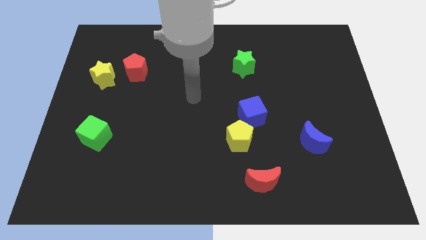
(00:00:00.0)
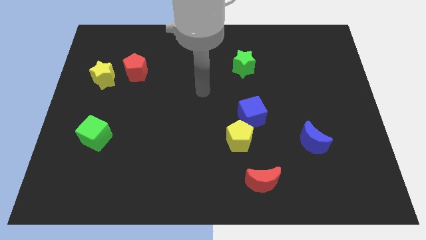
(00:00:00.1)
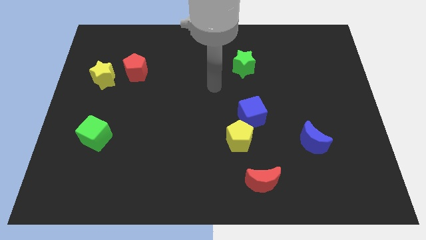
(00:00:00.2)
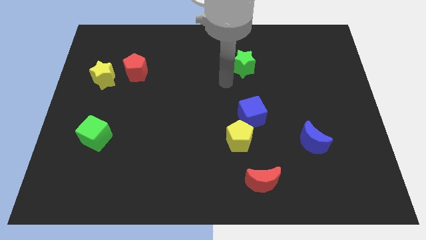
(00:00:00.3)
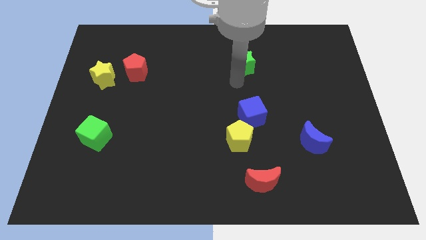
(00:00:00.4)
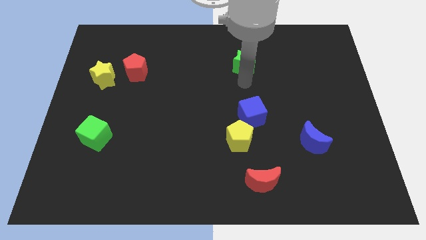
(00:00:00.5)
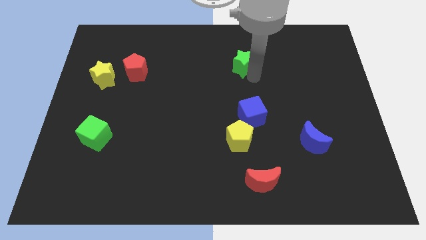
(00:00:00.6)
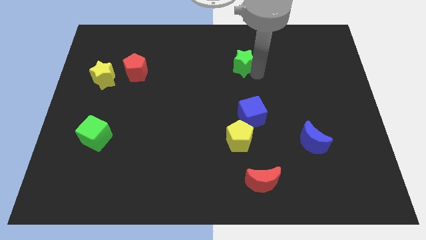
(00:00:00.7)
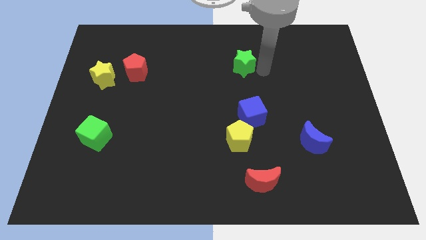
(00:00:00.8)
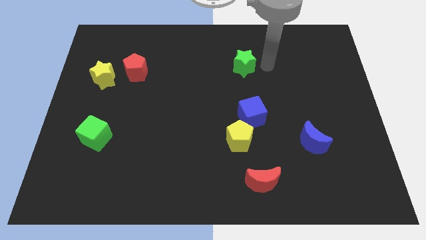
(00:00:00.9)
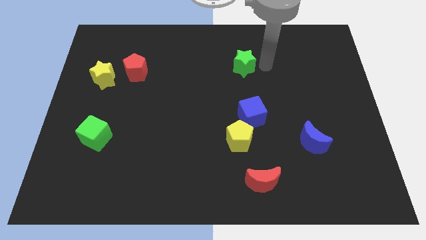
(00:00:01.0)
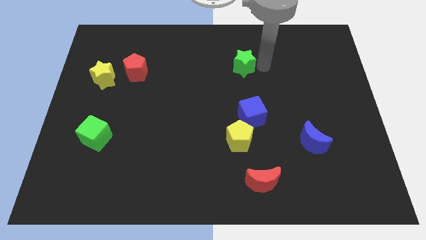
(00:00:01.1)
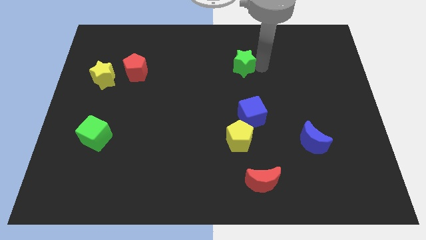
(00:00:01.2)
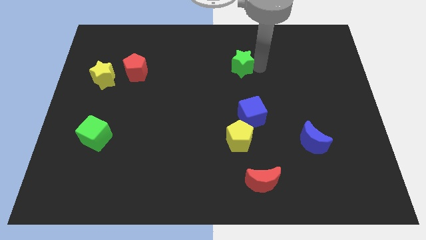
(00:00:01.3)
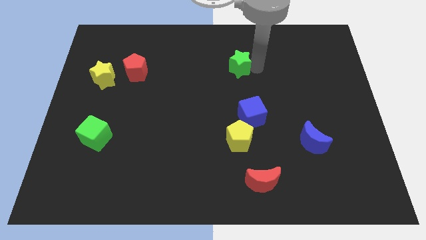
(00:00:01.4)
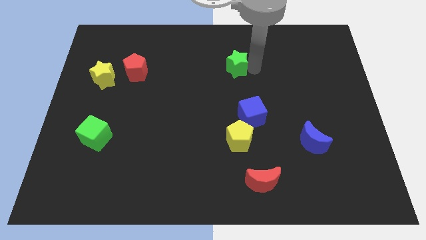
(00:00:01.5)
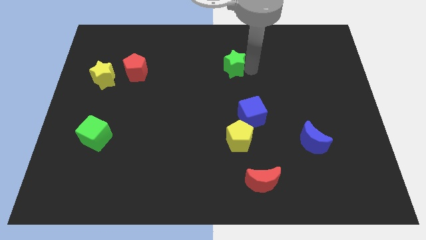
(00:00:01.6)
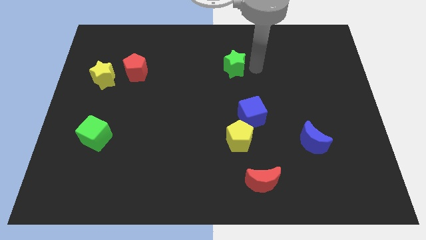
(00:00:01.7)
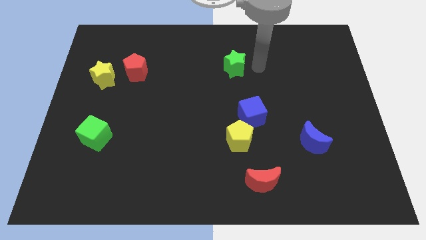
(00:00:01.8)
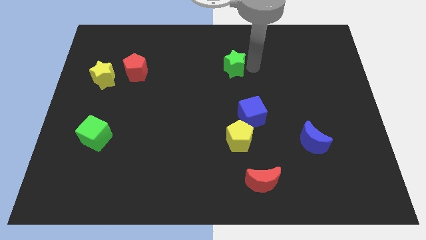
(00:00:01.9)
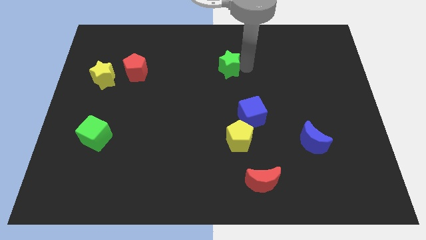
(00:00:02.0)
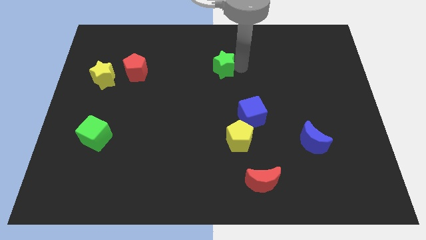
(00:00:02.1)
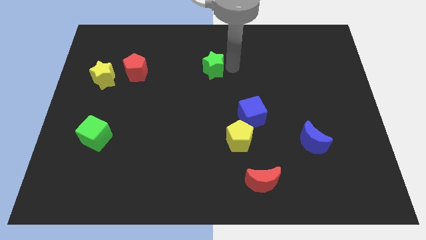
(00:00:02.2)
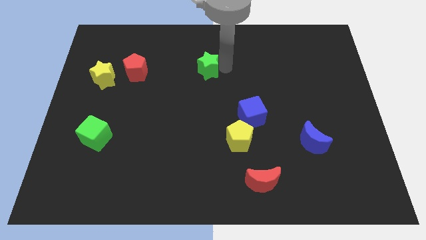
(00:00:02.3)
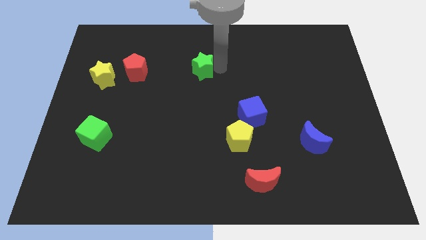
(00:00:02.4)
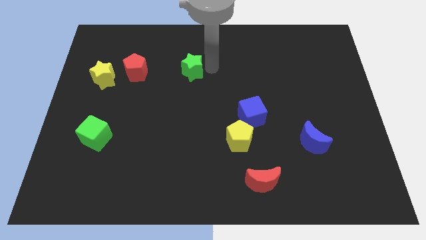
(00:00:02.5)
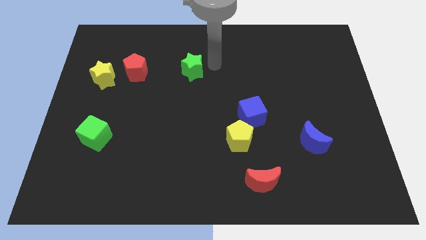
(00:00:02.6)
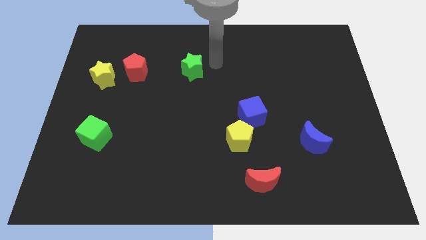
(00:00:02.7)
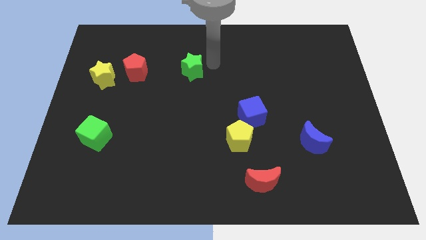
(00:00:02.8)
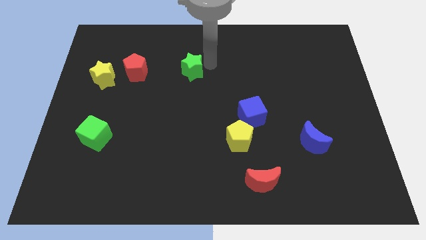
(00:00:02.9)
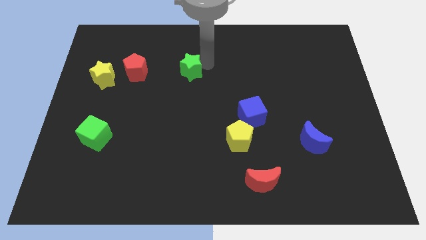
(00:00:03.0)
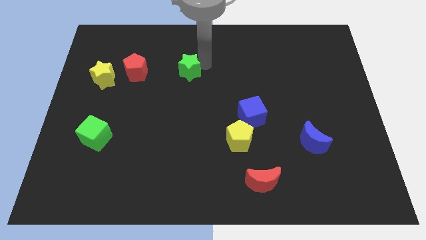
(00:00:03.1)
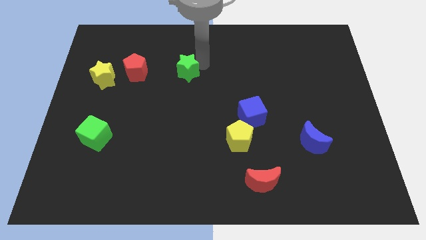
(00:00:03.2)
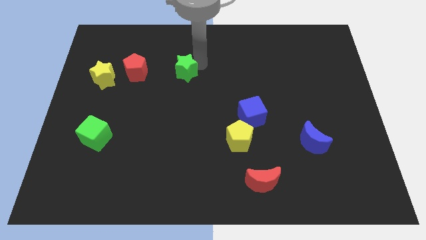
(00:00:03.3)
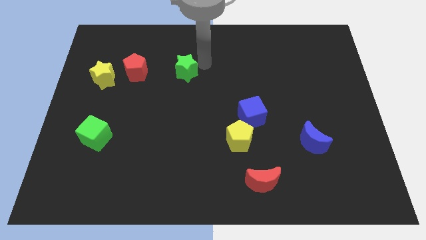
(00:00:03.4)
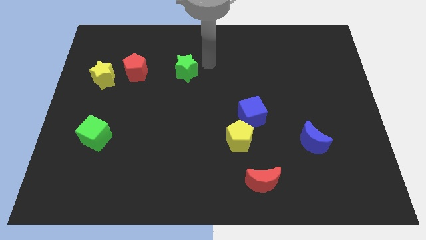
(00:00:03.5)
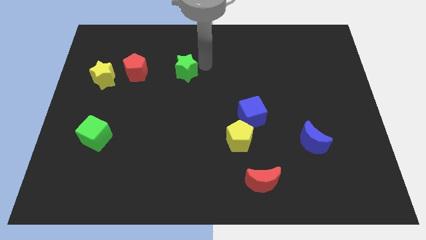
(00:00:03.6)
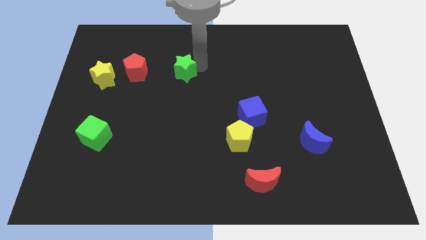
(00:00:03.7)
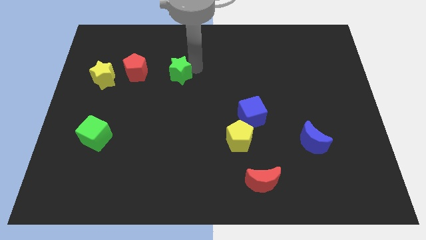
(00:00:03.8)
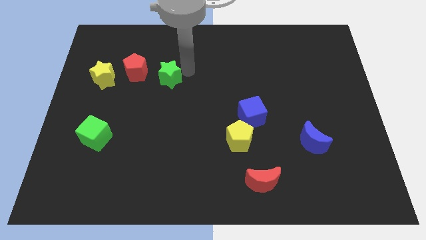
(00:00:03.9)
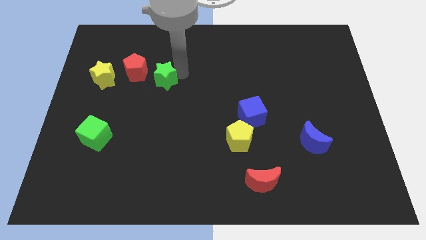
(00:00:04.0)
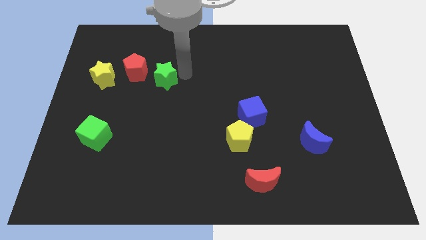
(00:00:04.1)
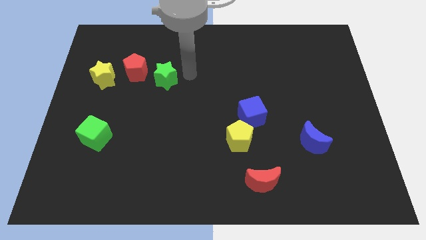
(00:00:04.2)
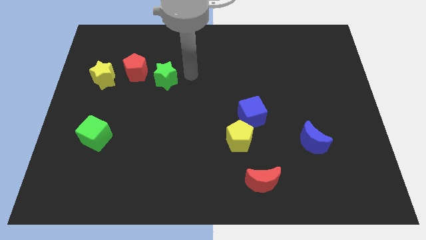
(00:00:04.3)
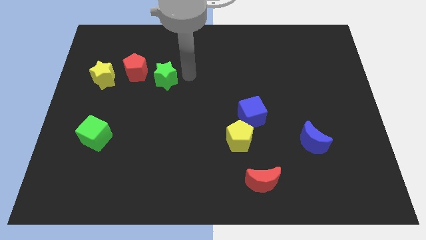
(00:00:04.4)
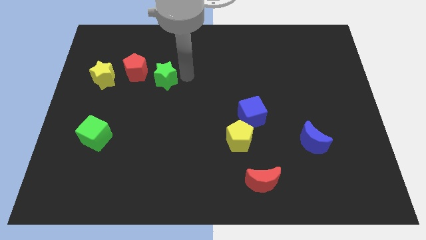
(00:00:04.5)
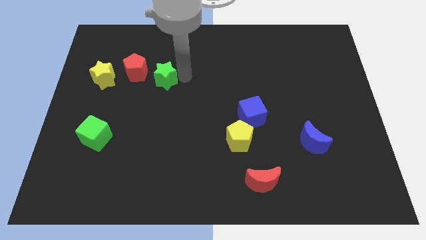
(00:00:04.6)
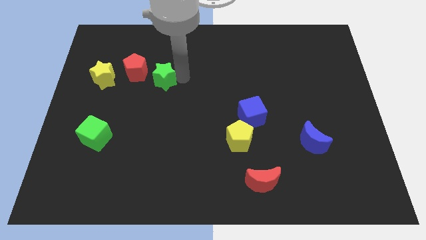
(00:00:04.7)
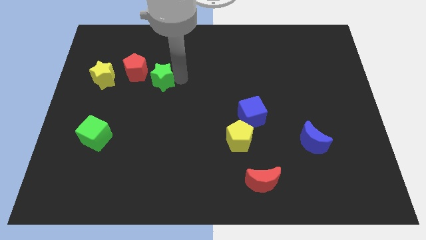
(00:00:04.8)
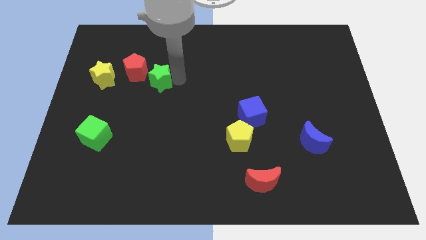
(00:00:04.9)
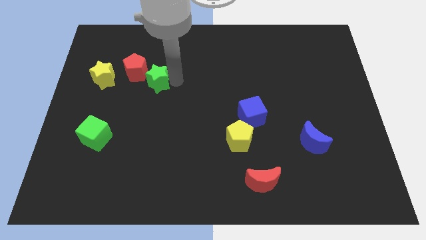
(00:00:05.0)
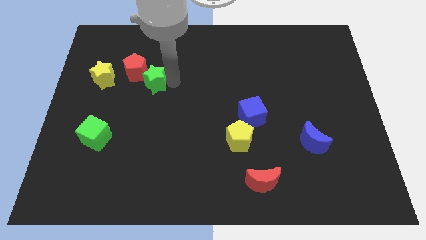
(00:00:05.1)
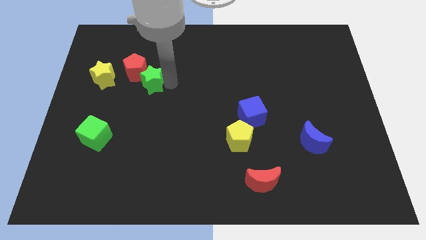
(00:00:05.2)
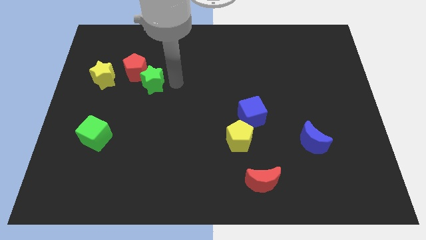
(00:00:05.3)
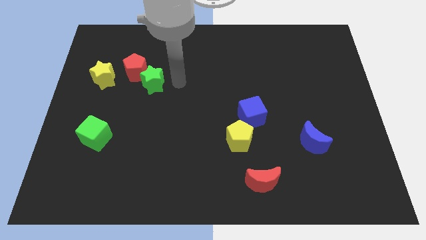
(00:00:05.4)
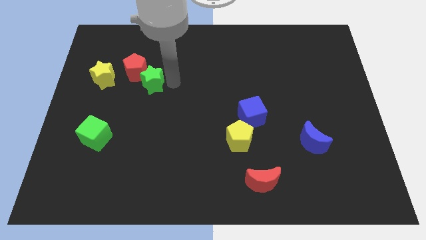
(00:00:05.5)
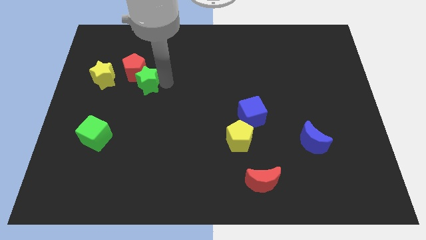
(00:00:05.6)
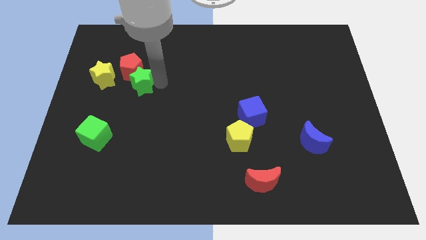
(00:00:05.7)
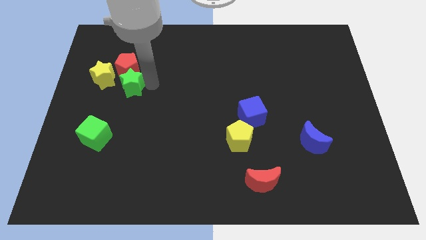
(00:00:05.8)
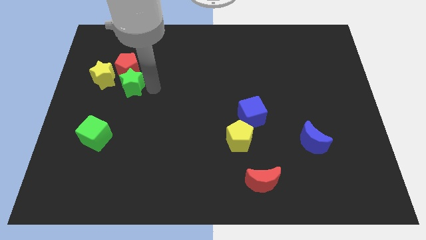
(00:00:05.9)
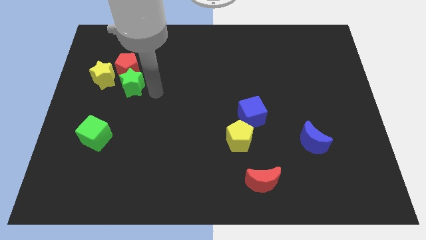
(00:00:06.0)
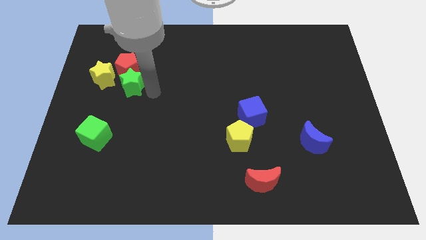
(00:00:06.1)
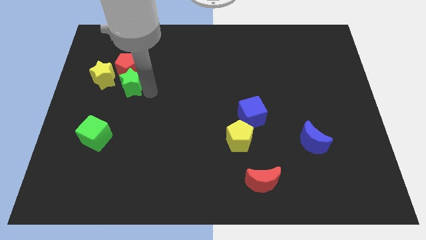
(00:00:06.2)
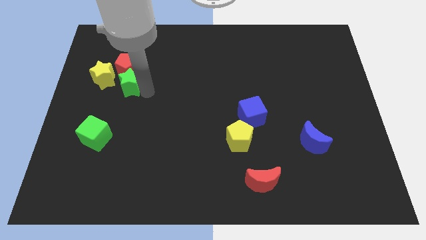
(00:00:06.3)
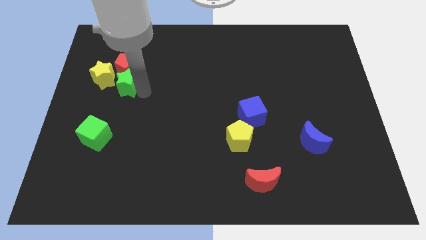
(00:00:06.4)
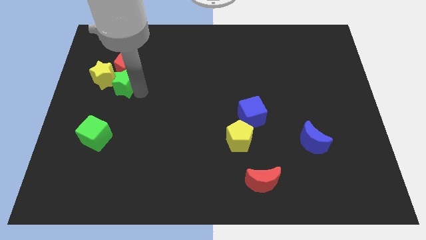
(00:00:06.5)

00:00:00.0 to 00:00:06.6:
move the green star next to the yellow star

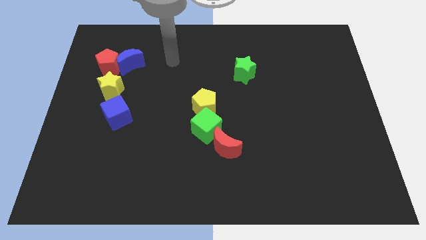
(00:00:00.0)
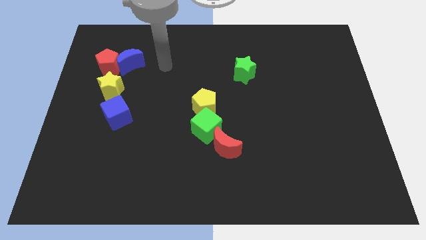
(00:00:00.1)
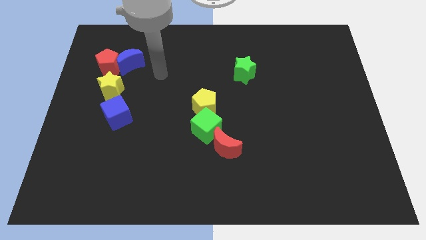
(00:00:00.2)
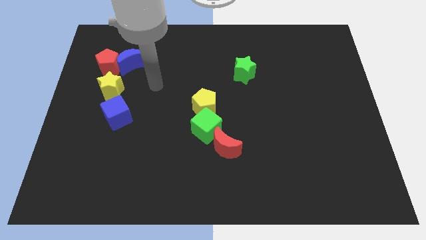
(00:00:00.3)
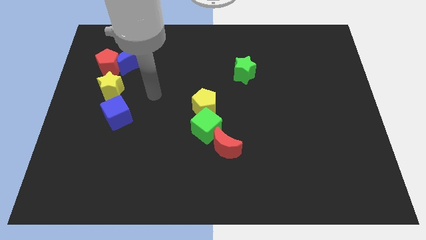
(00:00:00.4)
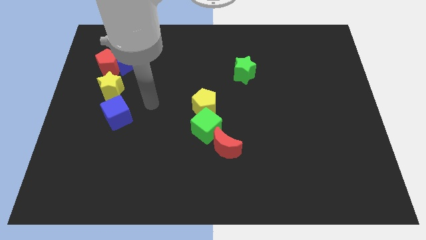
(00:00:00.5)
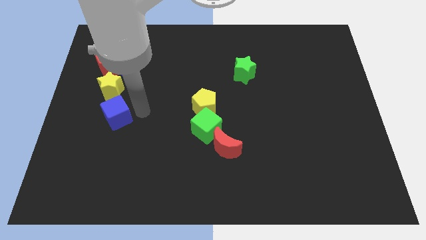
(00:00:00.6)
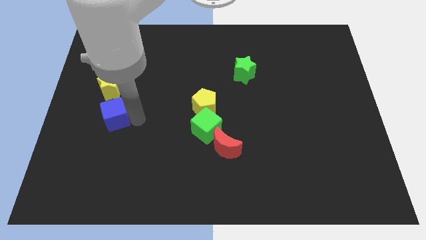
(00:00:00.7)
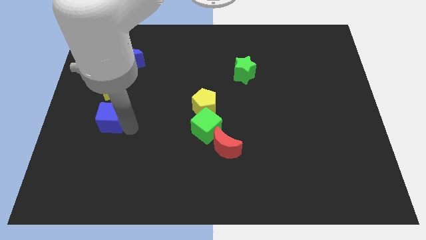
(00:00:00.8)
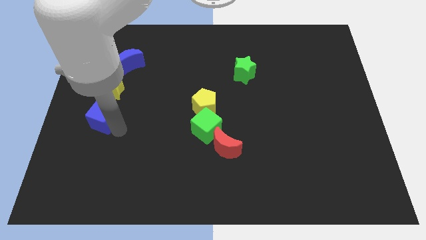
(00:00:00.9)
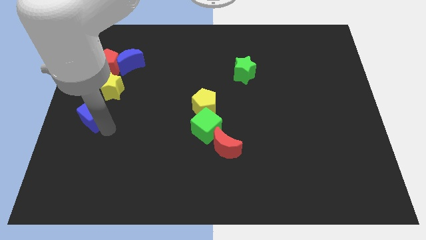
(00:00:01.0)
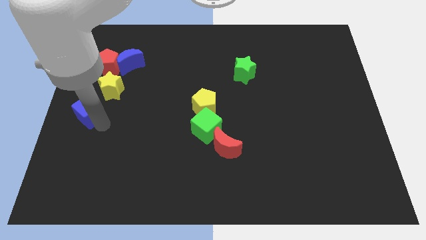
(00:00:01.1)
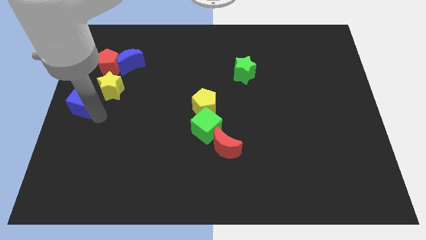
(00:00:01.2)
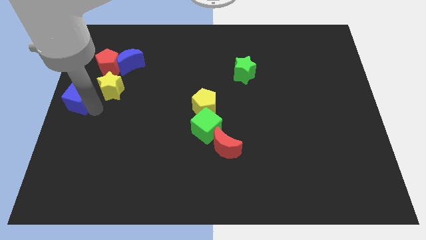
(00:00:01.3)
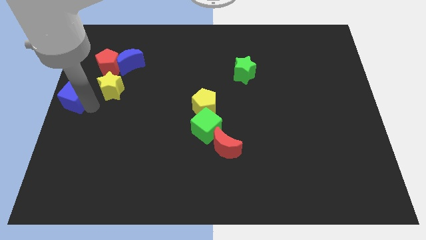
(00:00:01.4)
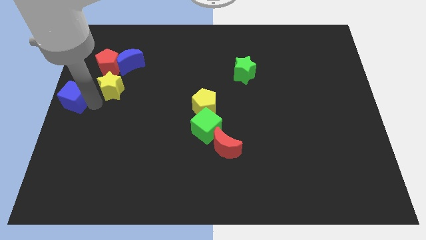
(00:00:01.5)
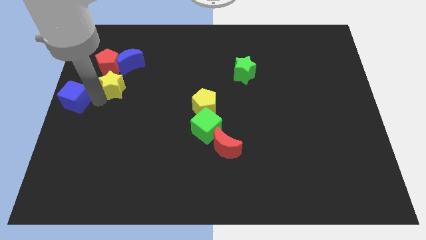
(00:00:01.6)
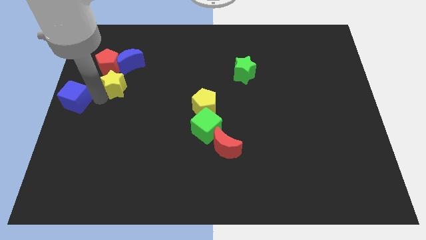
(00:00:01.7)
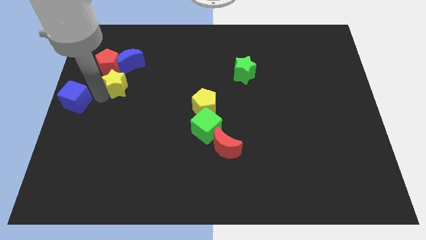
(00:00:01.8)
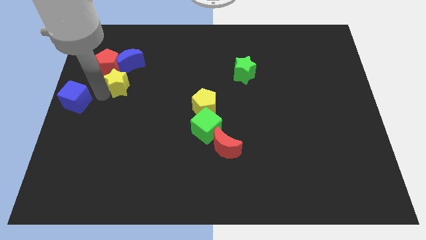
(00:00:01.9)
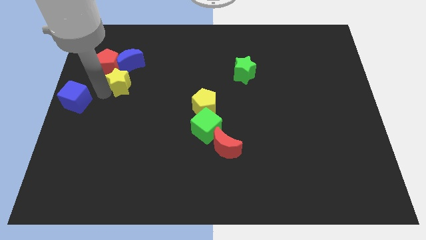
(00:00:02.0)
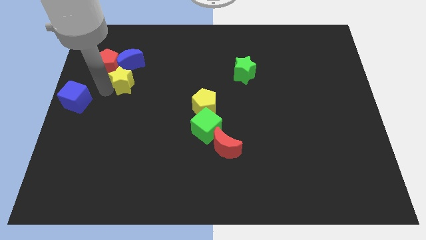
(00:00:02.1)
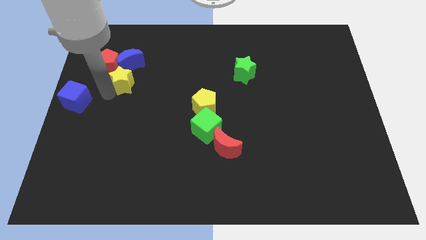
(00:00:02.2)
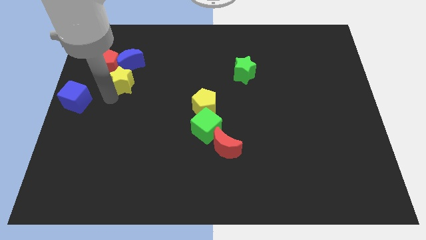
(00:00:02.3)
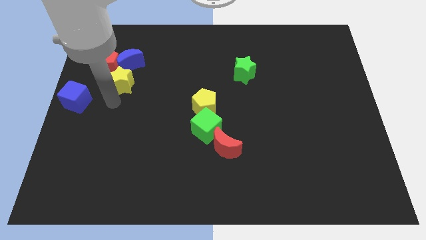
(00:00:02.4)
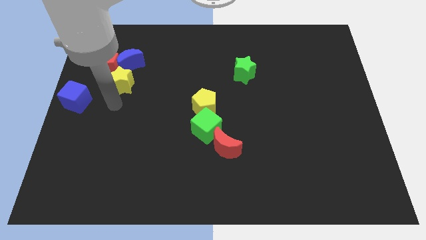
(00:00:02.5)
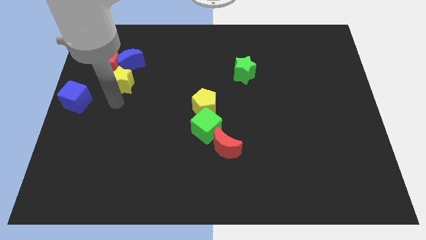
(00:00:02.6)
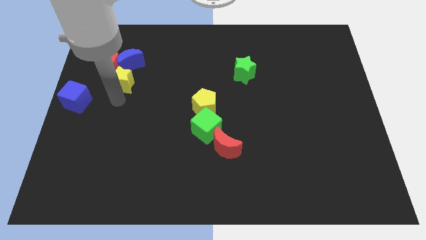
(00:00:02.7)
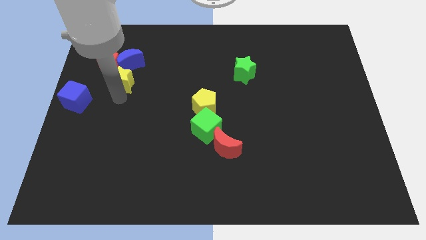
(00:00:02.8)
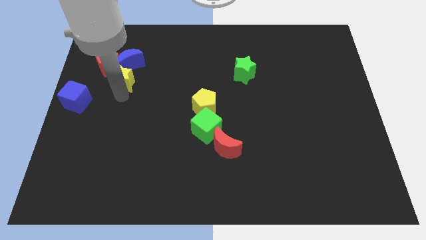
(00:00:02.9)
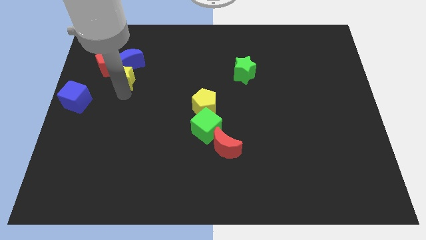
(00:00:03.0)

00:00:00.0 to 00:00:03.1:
put the yellow star next to the blue moon
